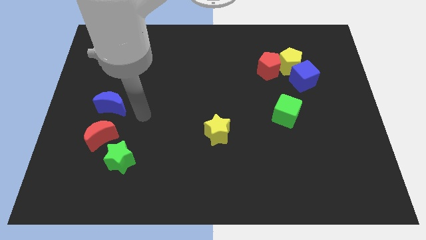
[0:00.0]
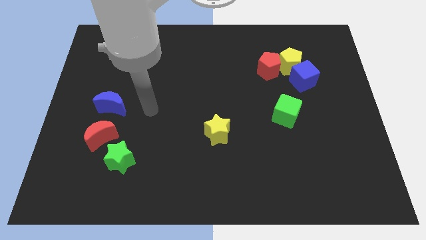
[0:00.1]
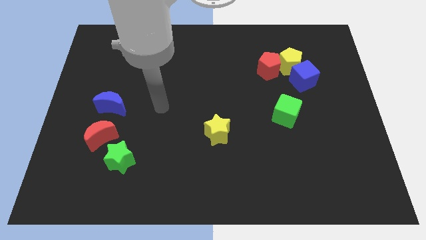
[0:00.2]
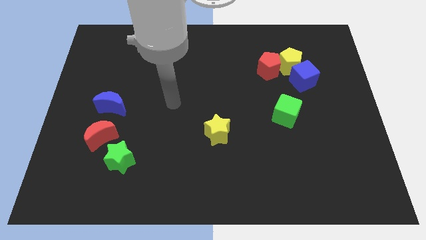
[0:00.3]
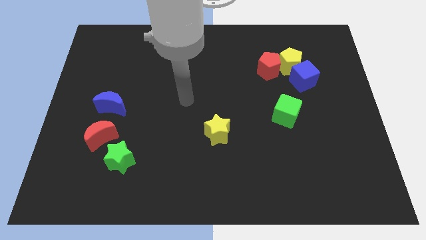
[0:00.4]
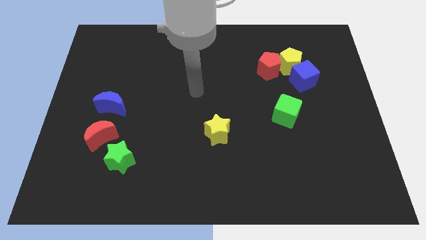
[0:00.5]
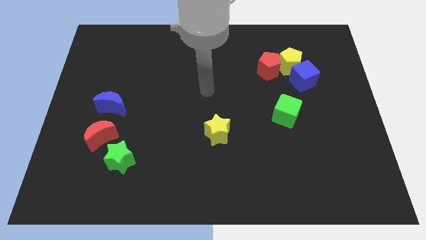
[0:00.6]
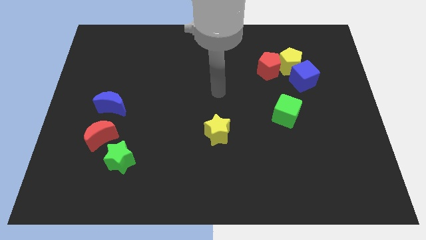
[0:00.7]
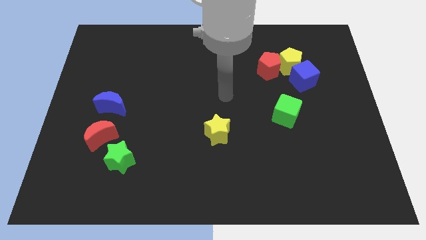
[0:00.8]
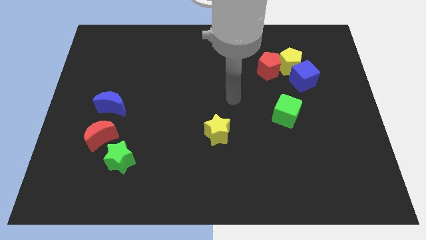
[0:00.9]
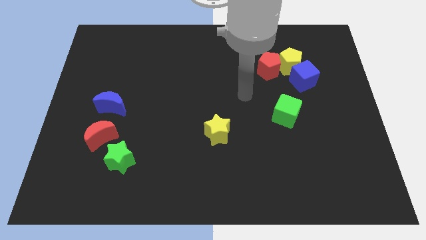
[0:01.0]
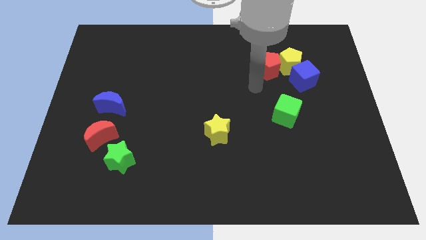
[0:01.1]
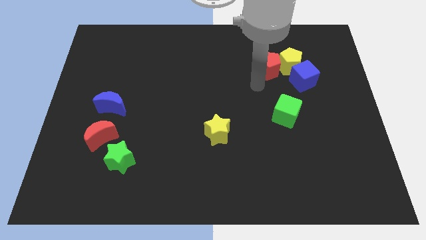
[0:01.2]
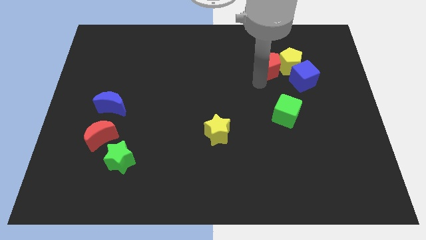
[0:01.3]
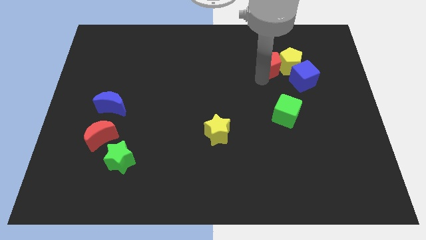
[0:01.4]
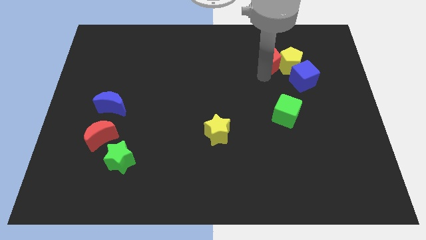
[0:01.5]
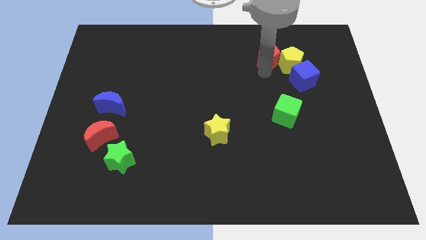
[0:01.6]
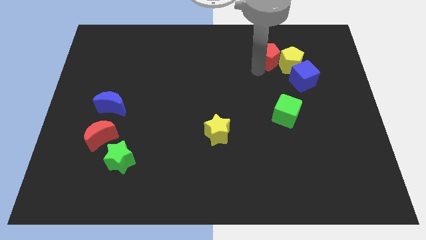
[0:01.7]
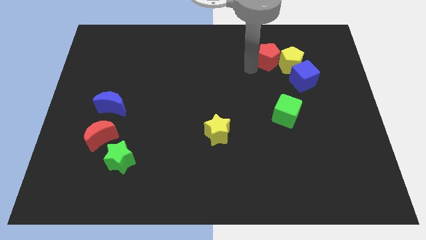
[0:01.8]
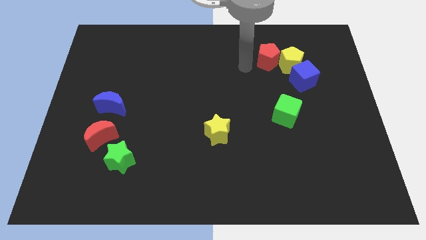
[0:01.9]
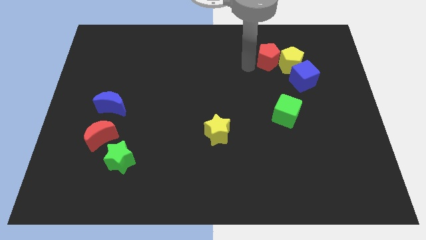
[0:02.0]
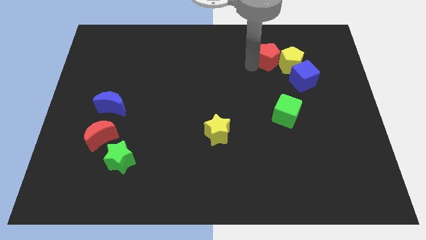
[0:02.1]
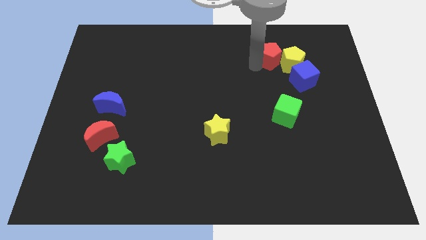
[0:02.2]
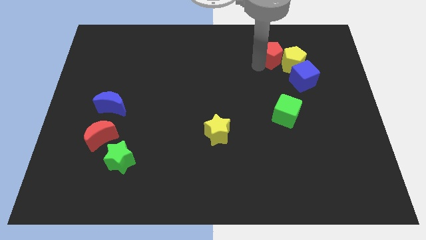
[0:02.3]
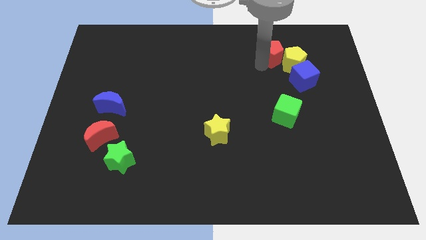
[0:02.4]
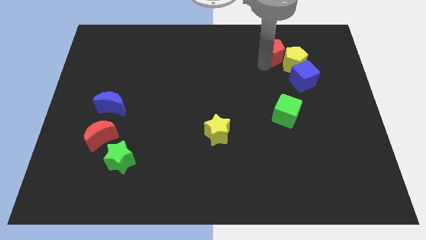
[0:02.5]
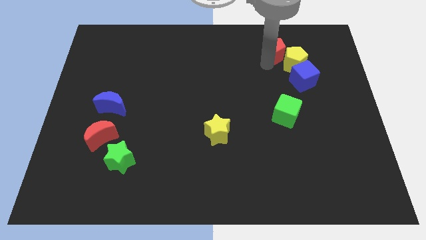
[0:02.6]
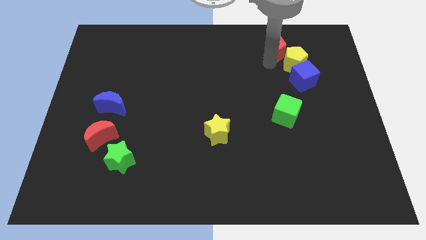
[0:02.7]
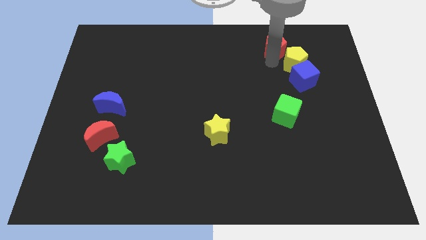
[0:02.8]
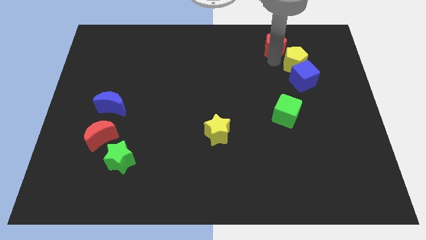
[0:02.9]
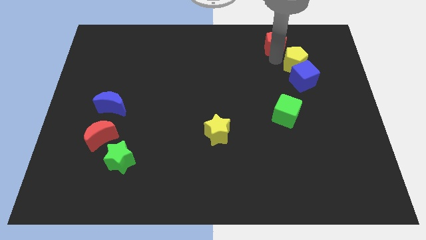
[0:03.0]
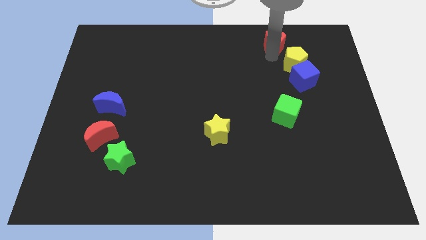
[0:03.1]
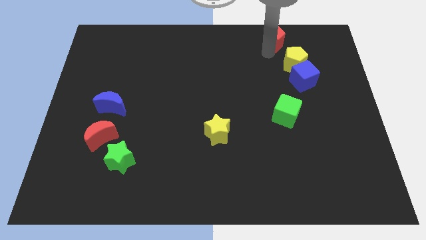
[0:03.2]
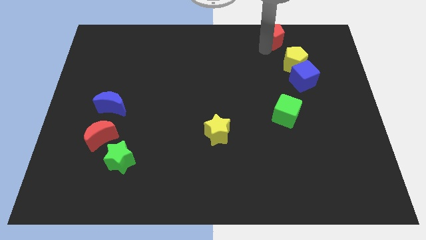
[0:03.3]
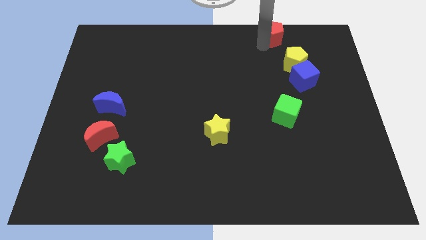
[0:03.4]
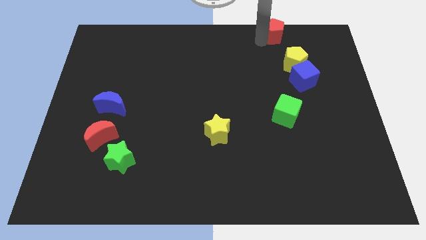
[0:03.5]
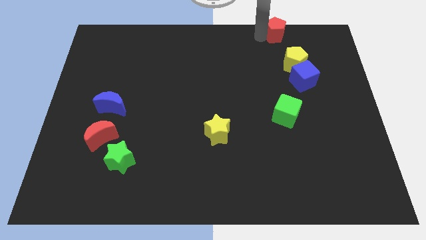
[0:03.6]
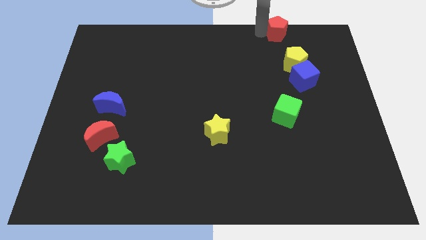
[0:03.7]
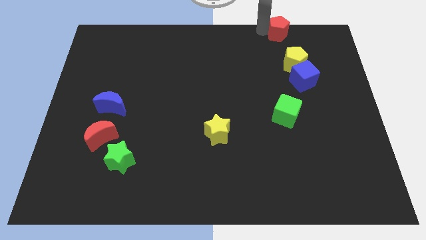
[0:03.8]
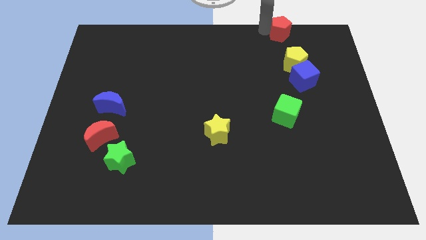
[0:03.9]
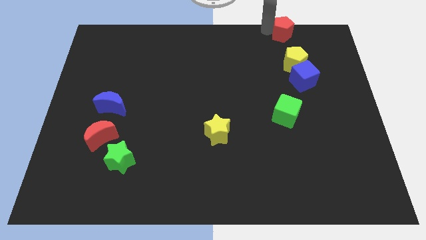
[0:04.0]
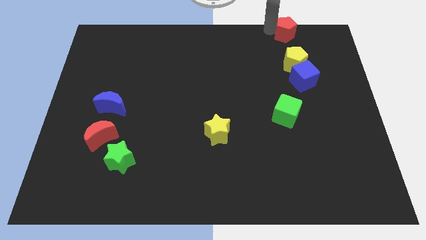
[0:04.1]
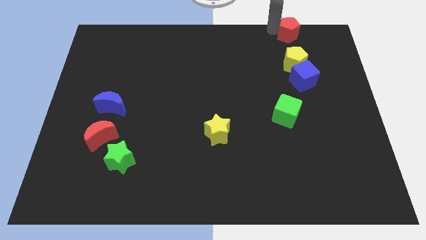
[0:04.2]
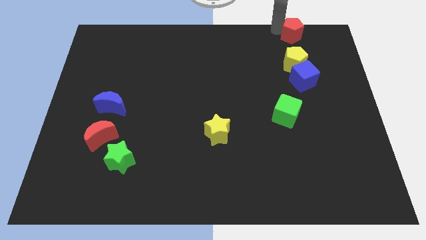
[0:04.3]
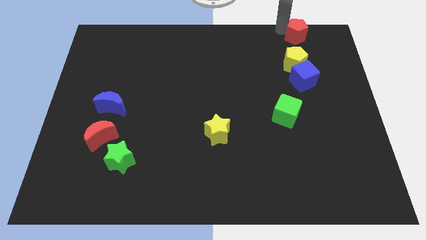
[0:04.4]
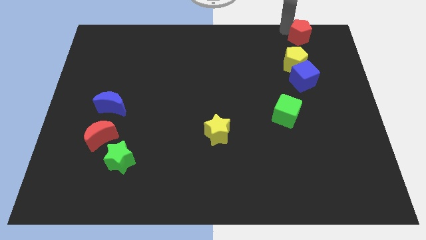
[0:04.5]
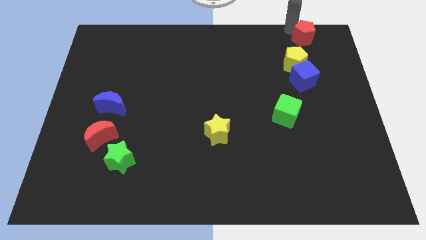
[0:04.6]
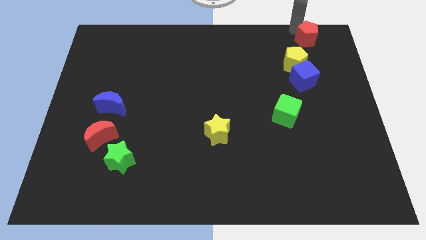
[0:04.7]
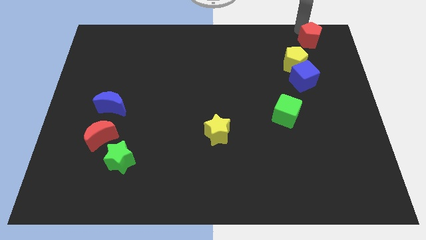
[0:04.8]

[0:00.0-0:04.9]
slide the red pentagon to the upper right corner

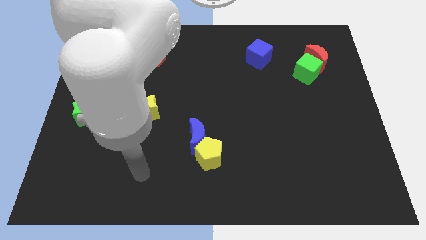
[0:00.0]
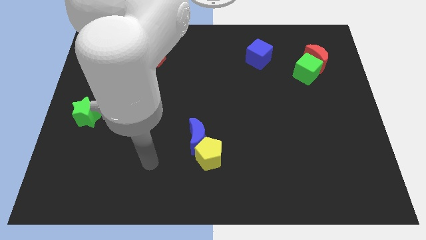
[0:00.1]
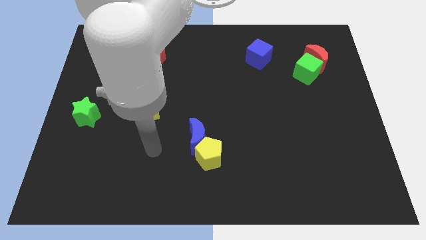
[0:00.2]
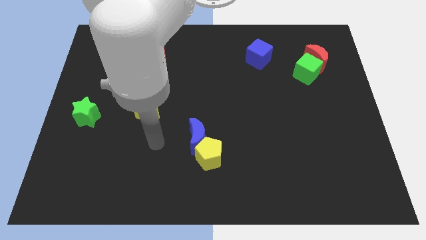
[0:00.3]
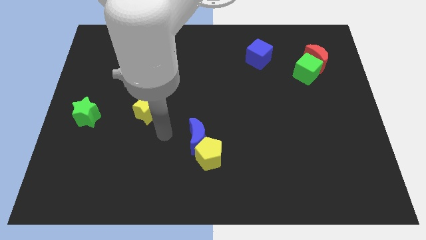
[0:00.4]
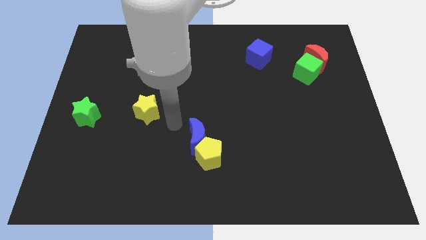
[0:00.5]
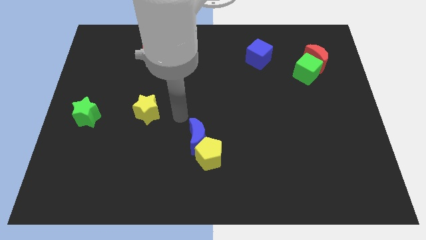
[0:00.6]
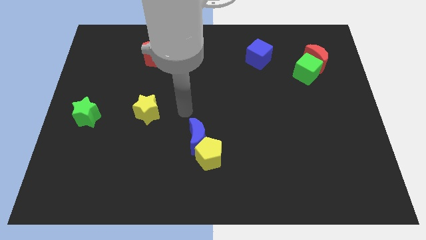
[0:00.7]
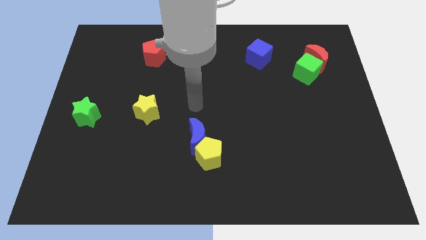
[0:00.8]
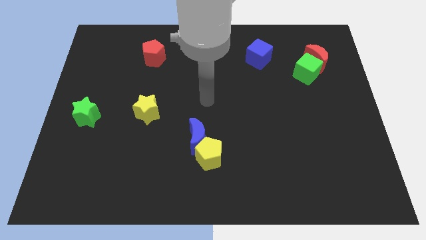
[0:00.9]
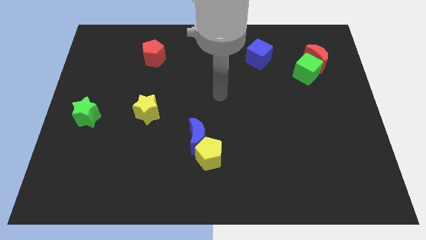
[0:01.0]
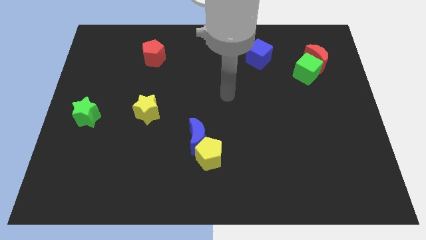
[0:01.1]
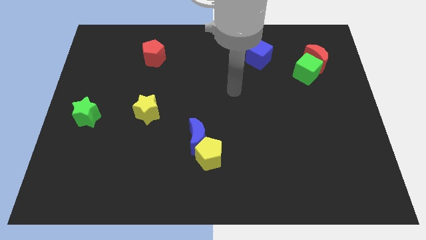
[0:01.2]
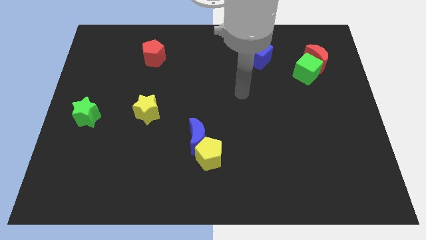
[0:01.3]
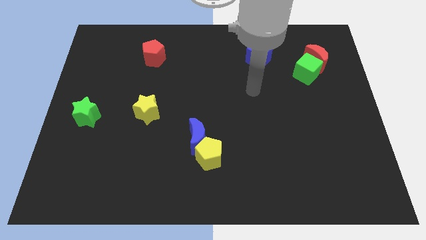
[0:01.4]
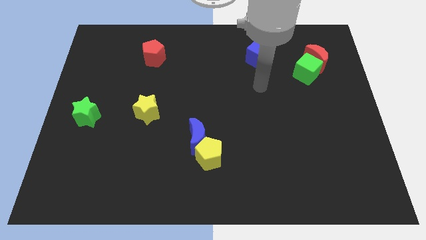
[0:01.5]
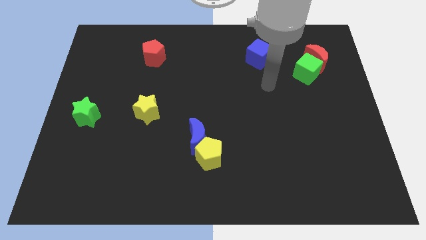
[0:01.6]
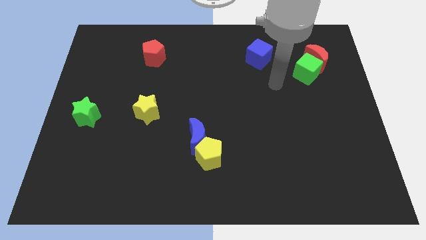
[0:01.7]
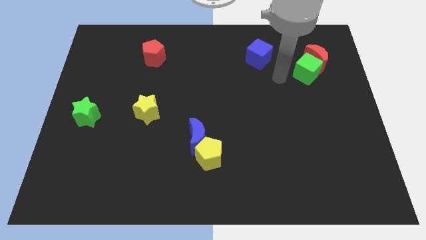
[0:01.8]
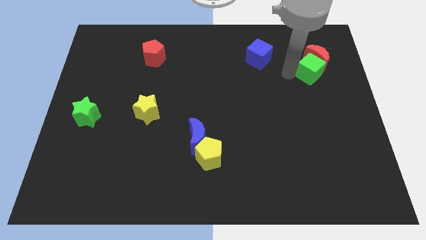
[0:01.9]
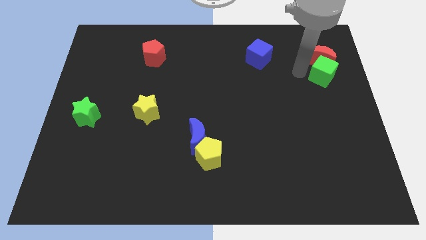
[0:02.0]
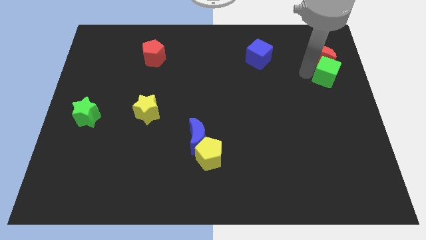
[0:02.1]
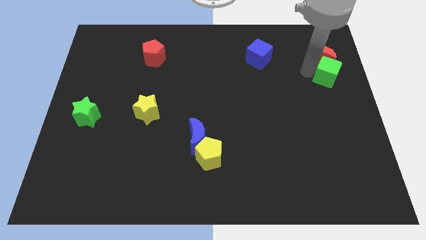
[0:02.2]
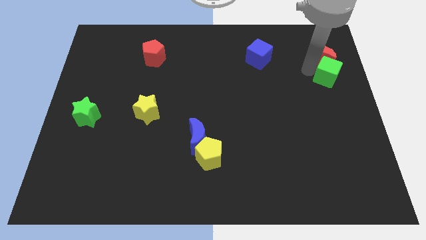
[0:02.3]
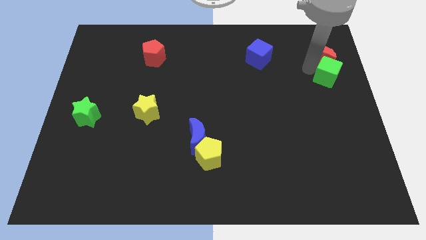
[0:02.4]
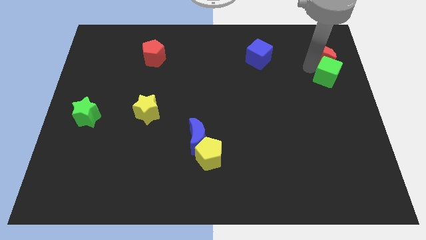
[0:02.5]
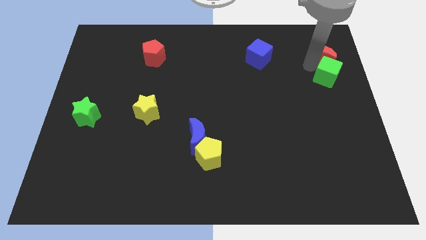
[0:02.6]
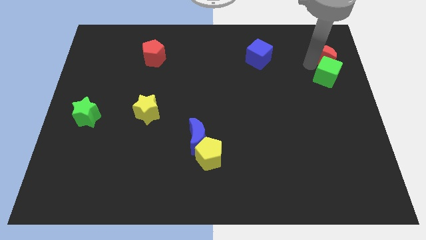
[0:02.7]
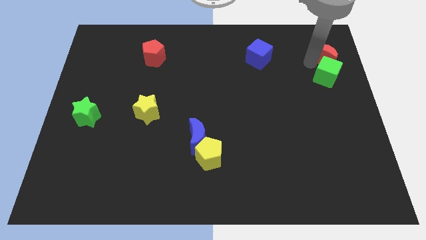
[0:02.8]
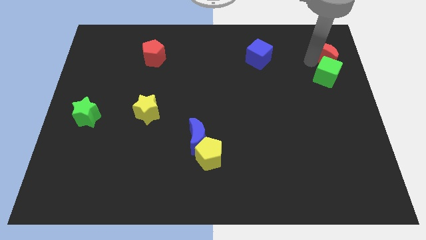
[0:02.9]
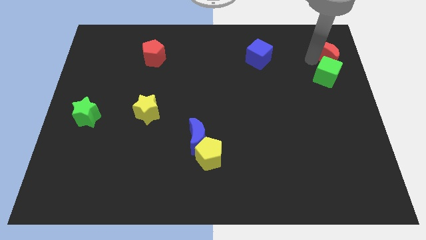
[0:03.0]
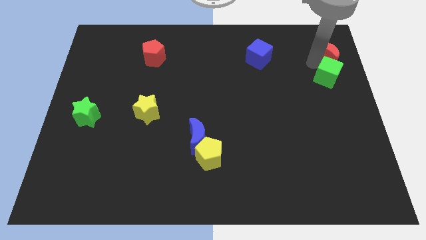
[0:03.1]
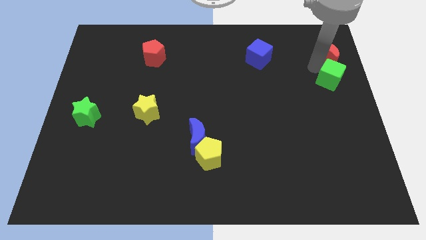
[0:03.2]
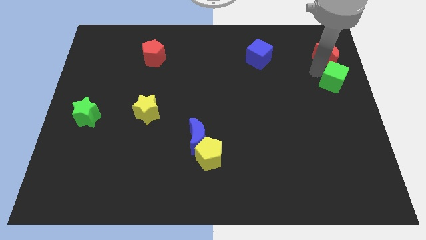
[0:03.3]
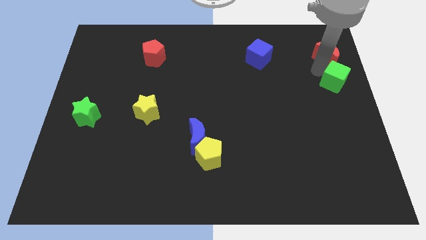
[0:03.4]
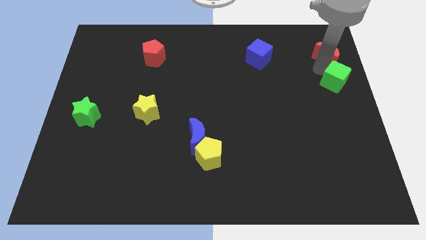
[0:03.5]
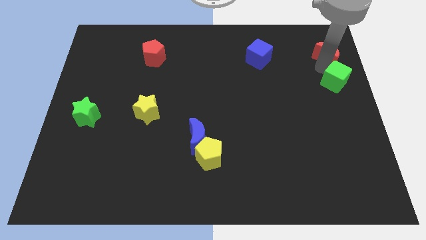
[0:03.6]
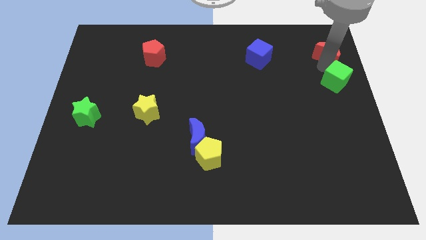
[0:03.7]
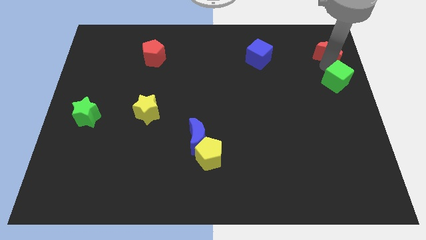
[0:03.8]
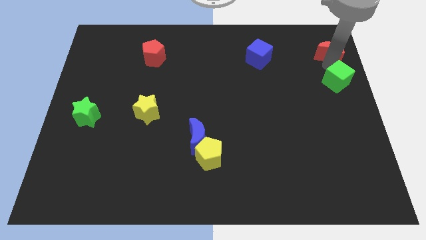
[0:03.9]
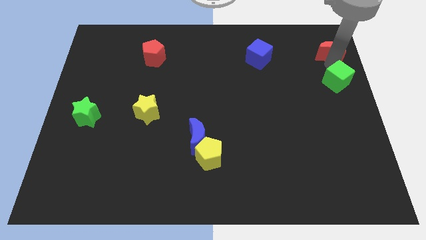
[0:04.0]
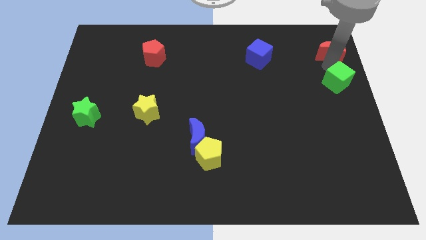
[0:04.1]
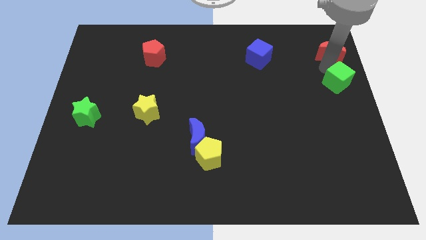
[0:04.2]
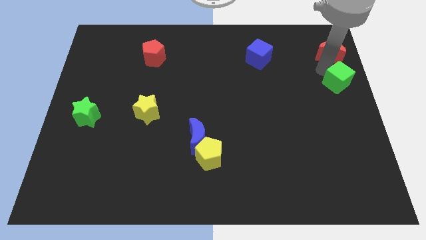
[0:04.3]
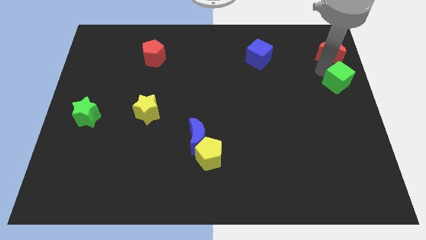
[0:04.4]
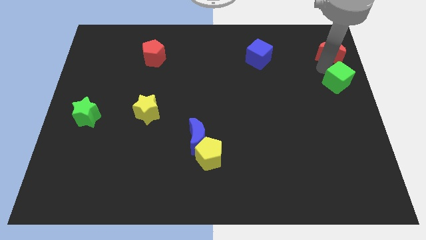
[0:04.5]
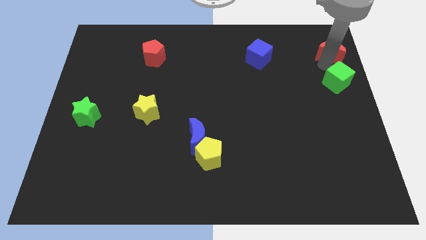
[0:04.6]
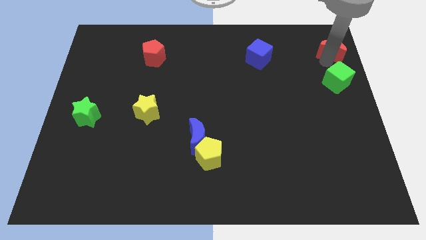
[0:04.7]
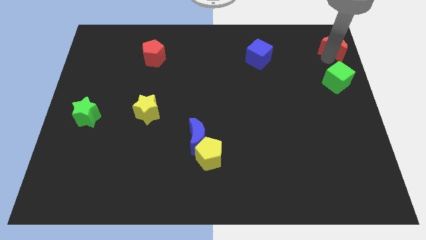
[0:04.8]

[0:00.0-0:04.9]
move the red moon to the top right of the board
